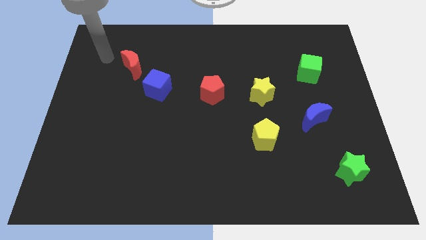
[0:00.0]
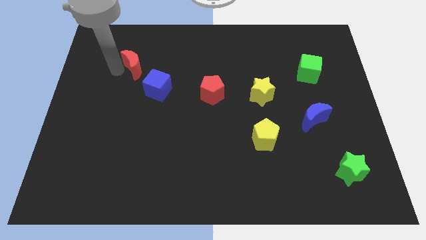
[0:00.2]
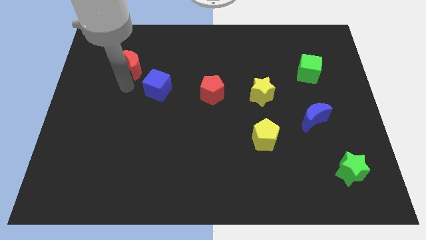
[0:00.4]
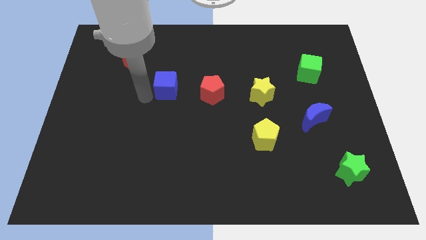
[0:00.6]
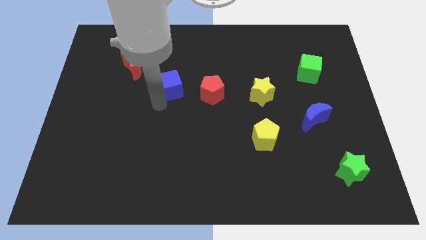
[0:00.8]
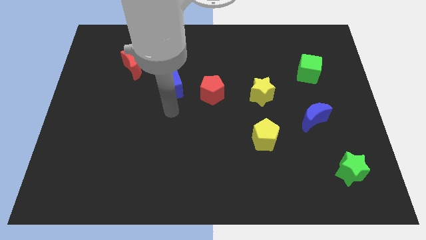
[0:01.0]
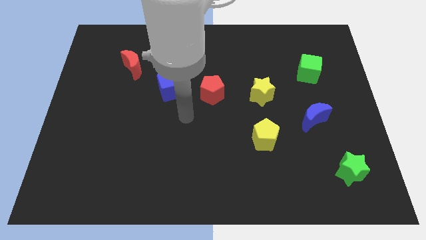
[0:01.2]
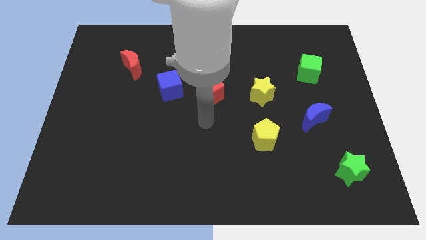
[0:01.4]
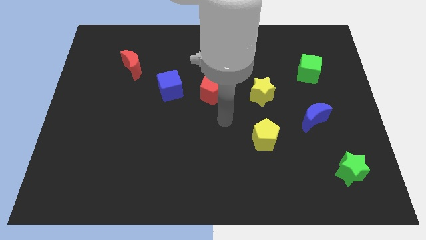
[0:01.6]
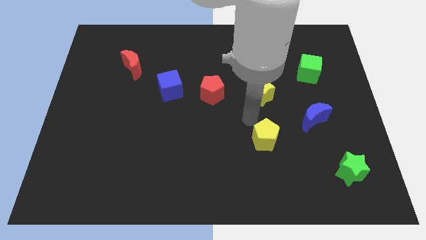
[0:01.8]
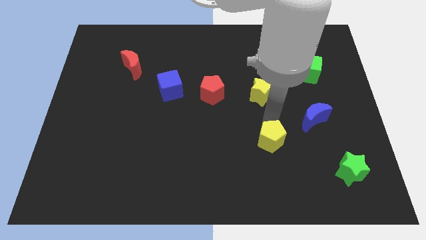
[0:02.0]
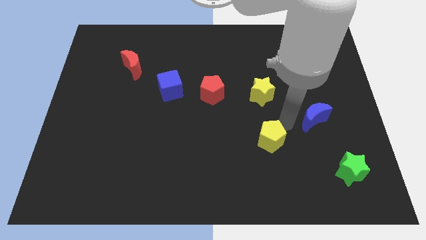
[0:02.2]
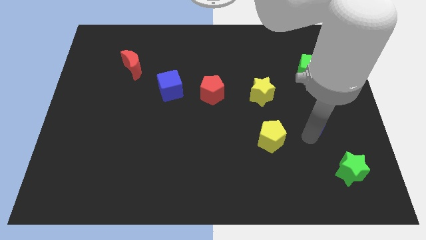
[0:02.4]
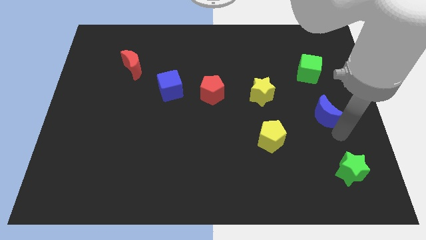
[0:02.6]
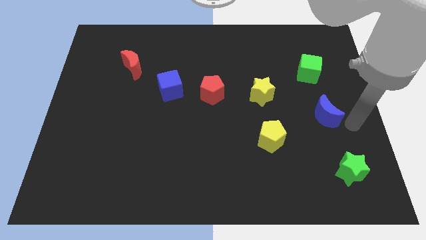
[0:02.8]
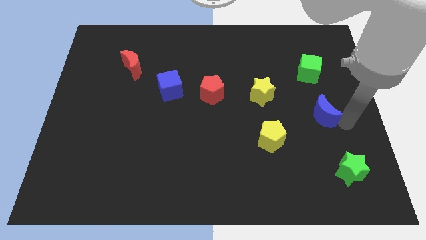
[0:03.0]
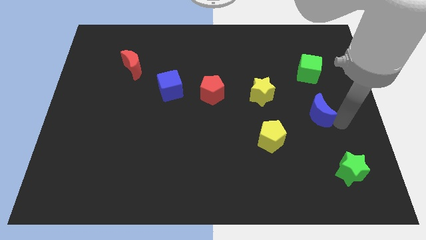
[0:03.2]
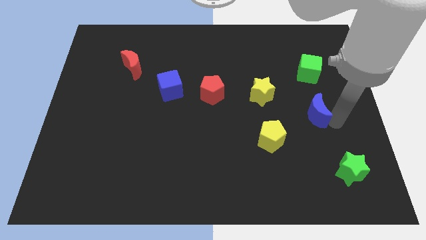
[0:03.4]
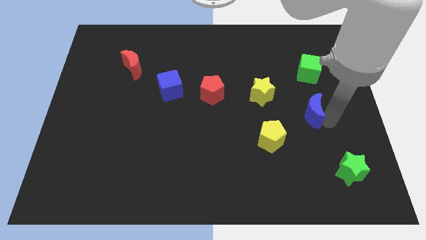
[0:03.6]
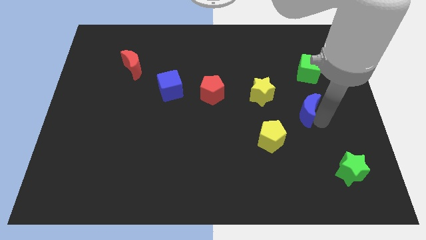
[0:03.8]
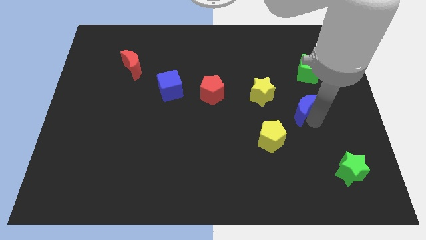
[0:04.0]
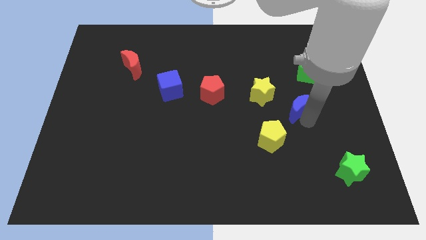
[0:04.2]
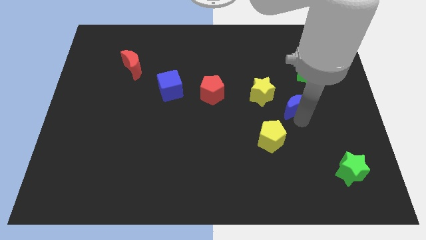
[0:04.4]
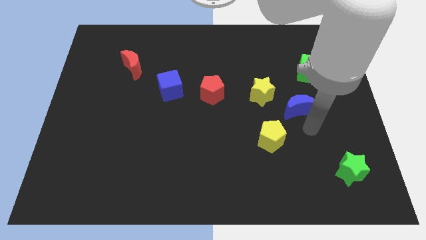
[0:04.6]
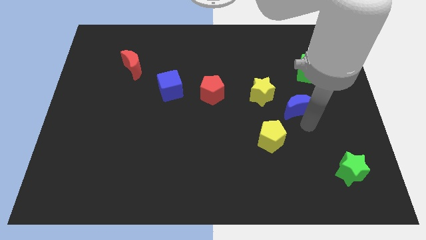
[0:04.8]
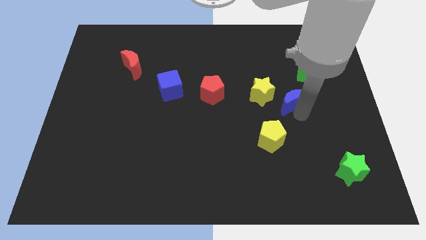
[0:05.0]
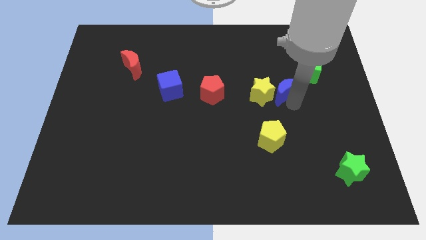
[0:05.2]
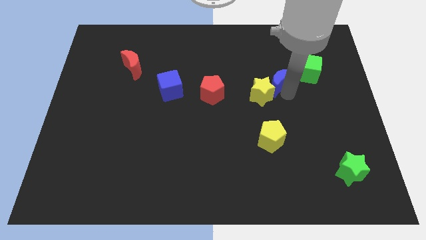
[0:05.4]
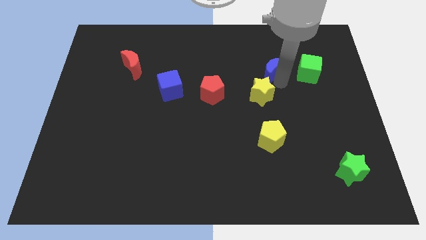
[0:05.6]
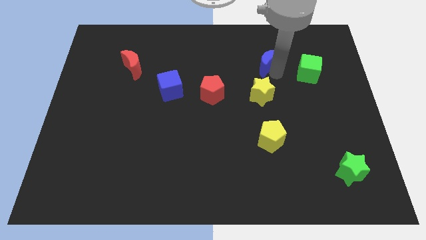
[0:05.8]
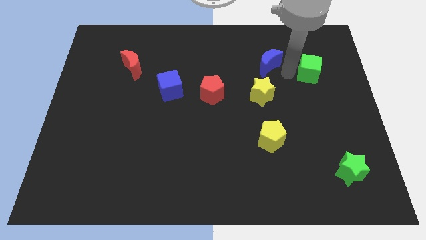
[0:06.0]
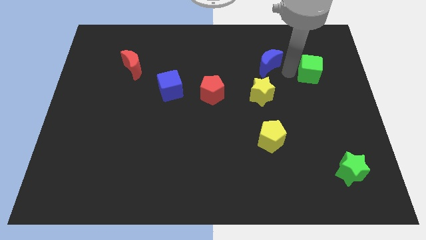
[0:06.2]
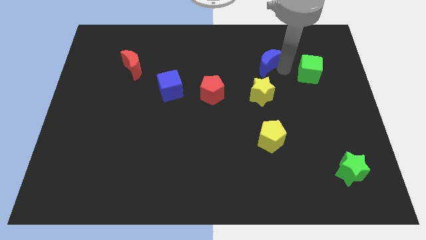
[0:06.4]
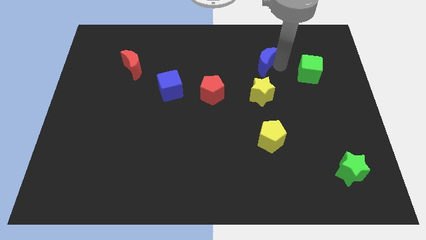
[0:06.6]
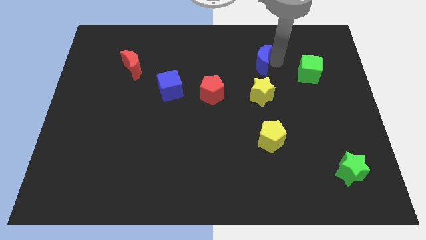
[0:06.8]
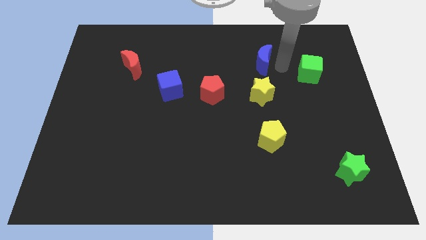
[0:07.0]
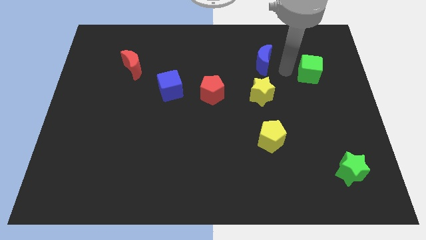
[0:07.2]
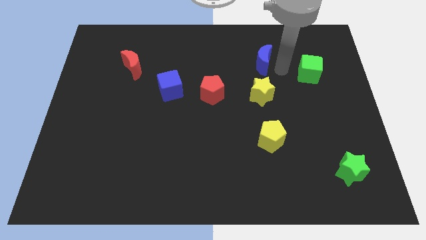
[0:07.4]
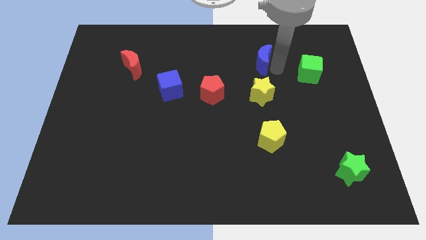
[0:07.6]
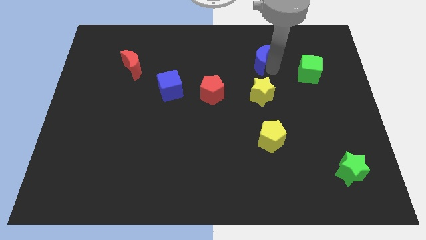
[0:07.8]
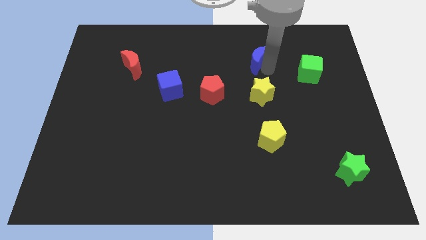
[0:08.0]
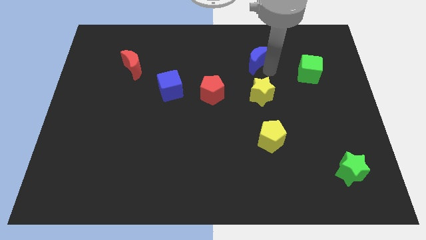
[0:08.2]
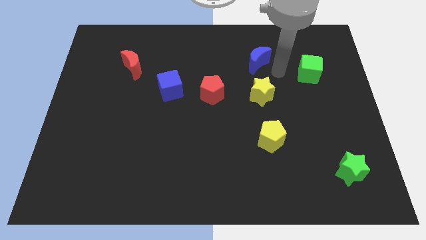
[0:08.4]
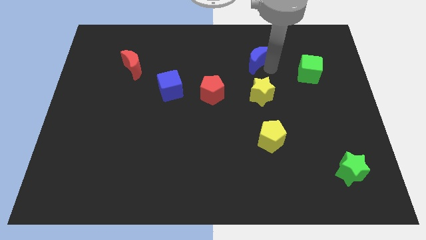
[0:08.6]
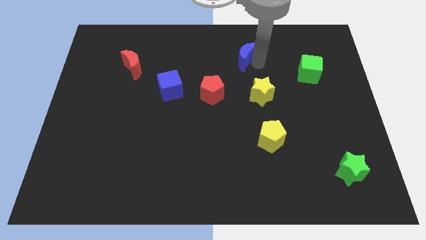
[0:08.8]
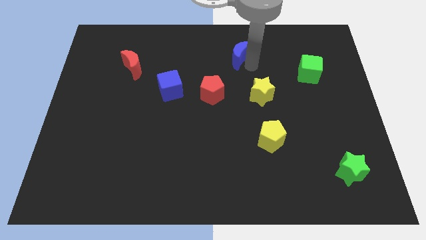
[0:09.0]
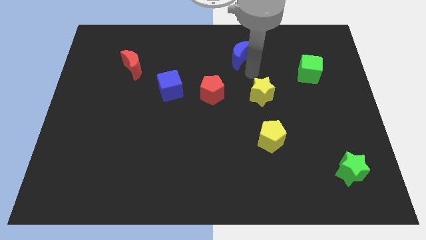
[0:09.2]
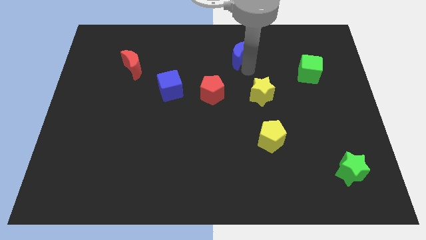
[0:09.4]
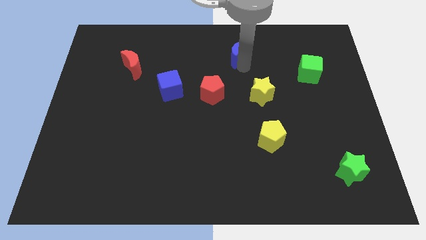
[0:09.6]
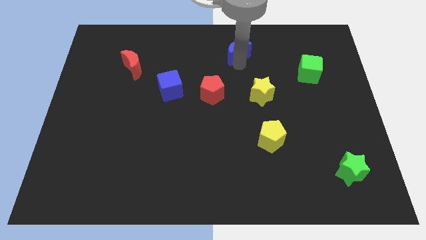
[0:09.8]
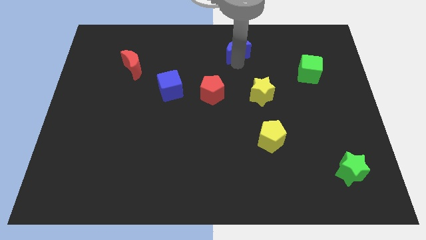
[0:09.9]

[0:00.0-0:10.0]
move the blue moon to the towards your base
